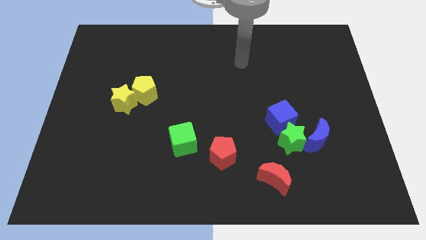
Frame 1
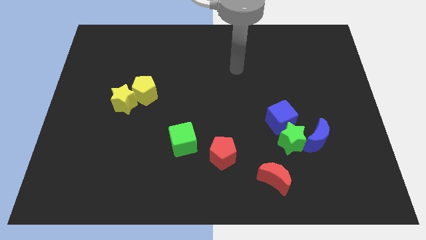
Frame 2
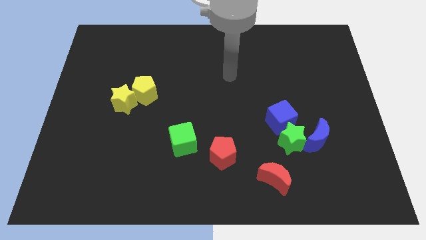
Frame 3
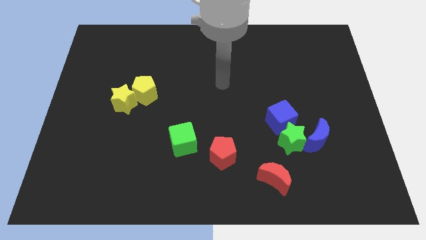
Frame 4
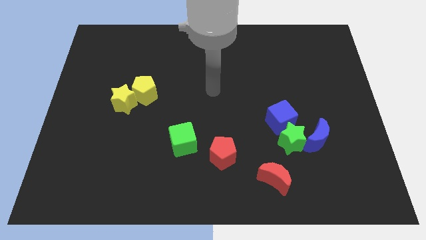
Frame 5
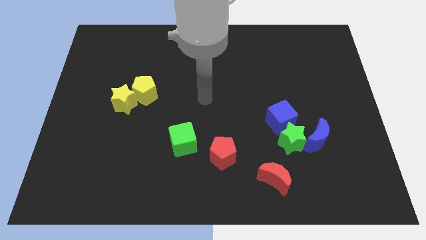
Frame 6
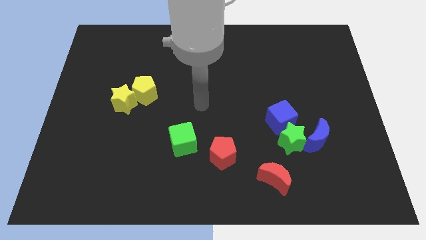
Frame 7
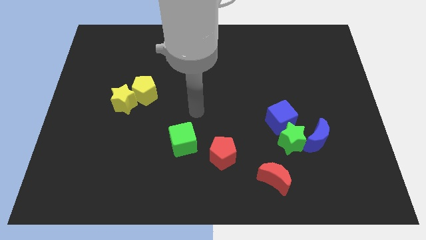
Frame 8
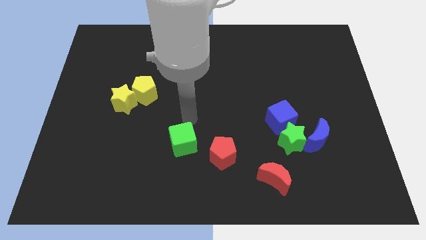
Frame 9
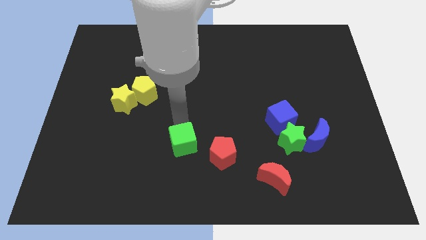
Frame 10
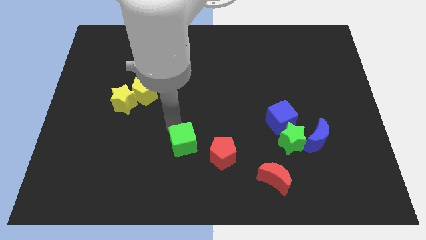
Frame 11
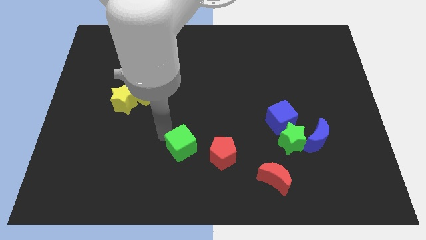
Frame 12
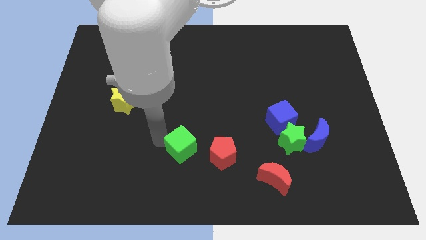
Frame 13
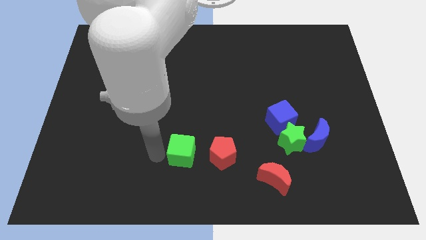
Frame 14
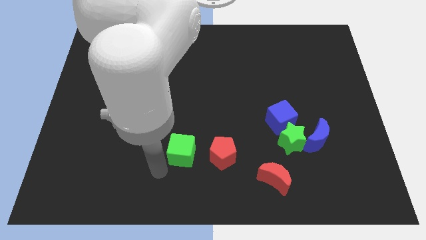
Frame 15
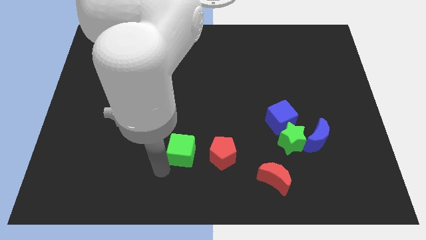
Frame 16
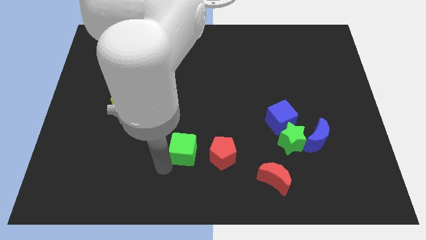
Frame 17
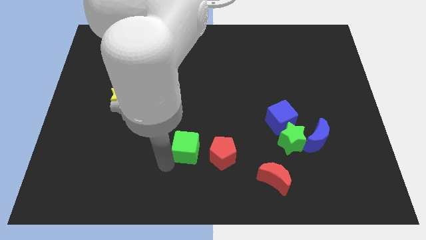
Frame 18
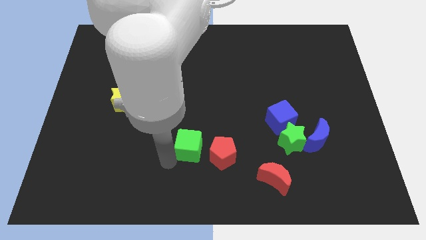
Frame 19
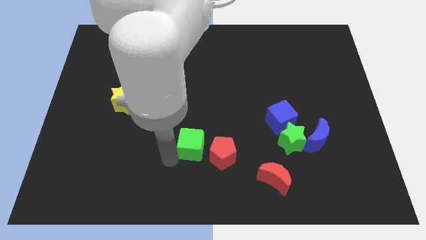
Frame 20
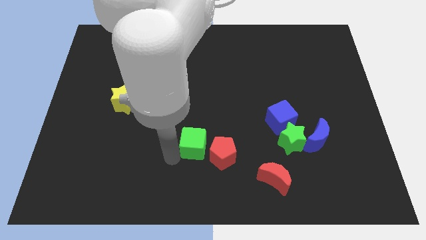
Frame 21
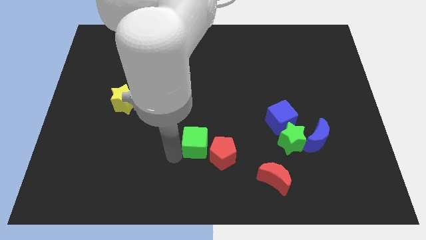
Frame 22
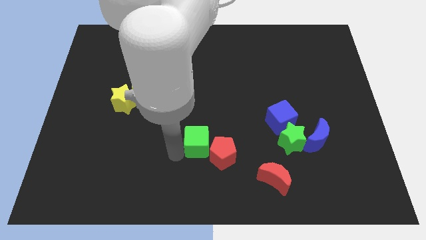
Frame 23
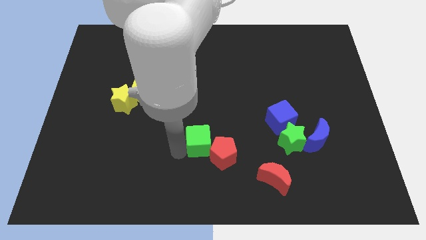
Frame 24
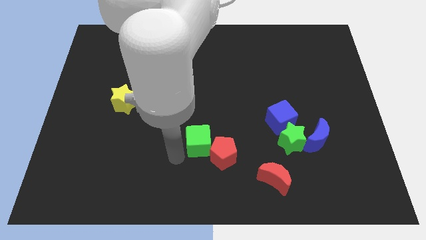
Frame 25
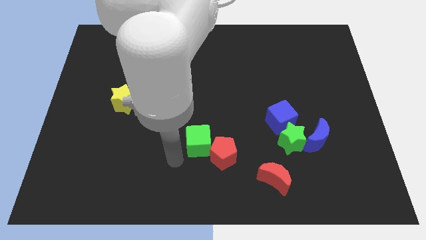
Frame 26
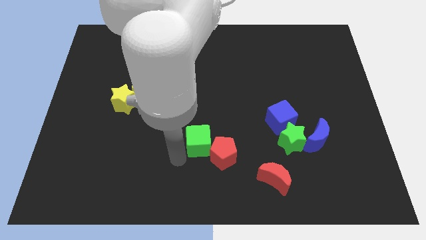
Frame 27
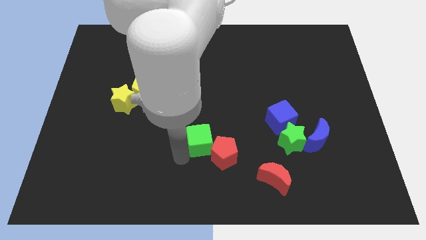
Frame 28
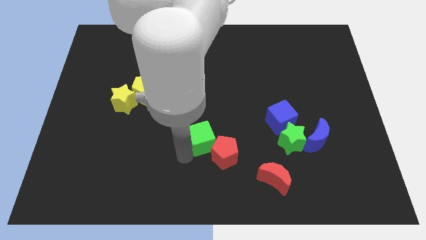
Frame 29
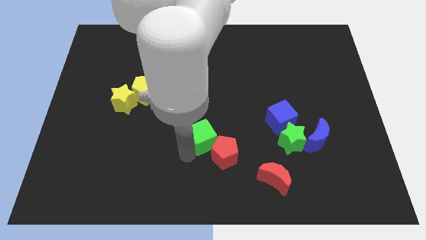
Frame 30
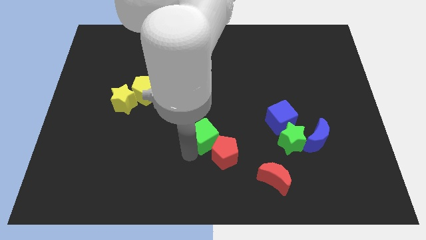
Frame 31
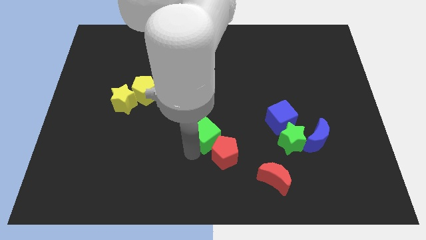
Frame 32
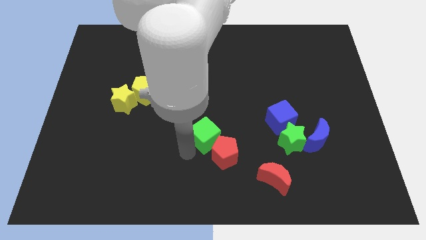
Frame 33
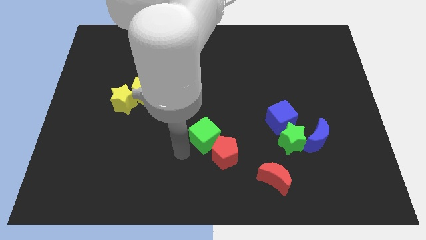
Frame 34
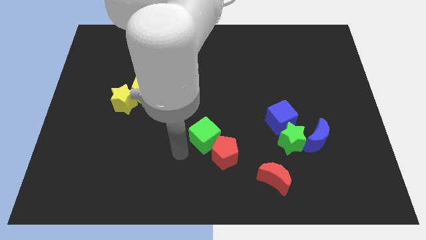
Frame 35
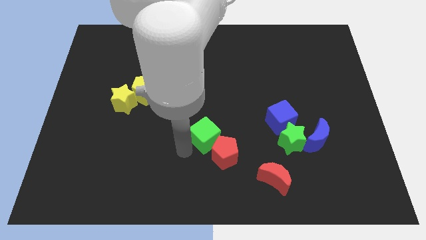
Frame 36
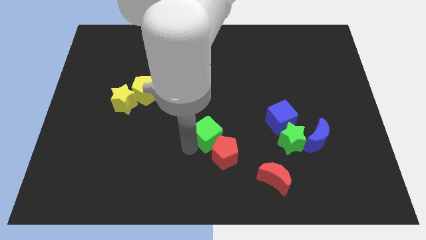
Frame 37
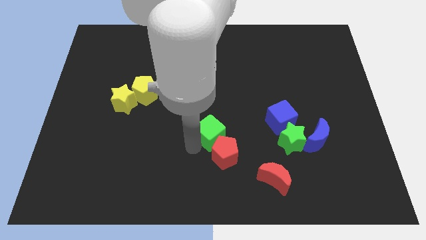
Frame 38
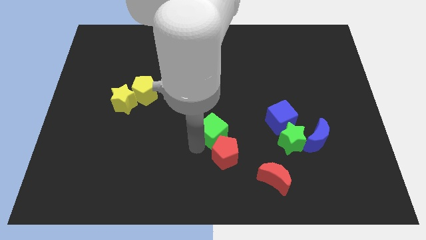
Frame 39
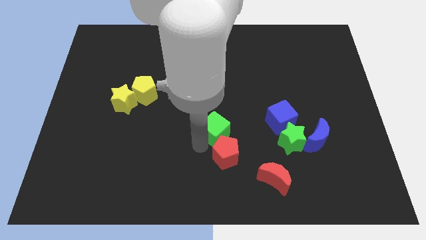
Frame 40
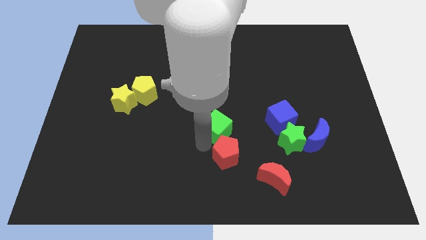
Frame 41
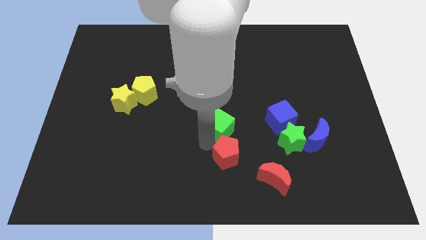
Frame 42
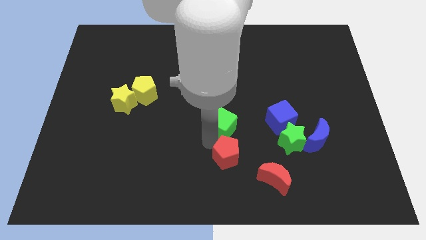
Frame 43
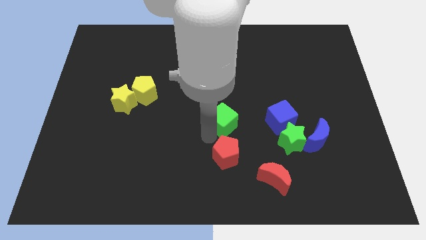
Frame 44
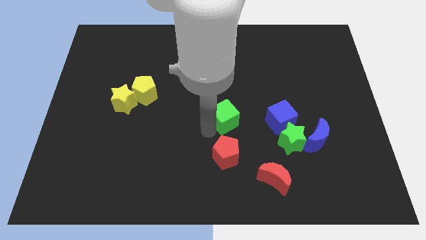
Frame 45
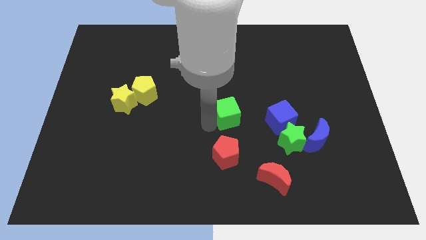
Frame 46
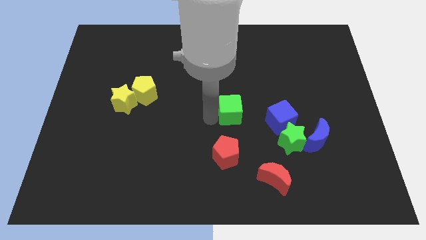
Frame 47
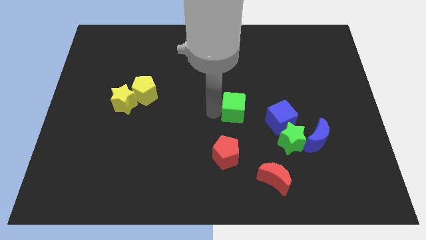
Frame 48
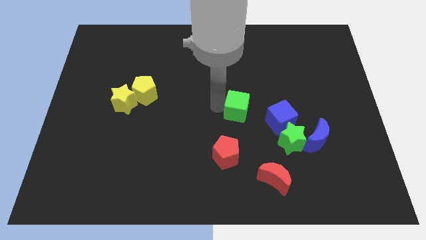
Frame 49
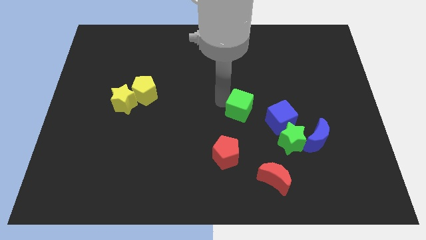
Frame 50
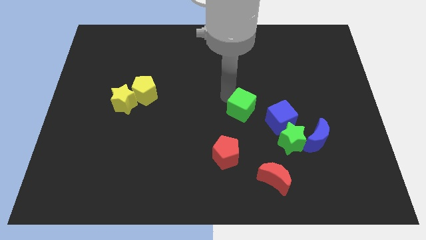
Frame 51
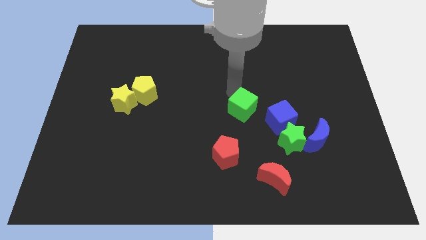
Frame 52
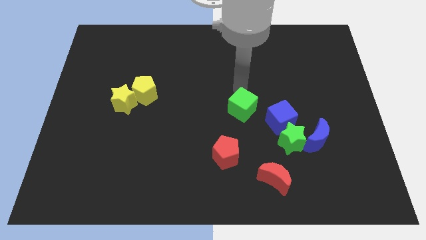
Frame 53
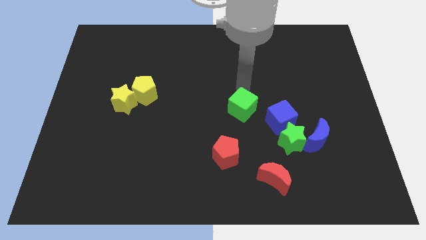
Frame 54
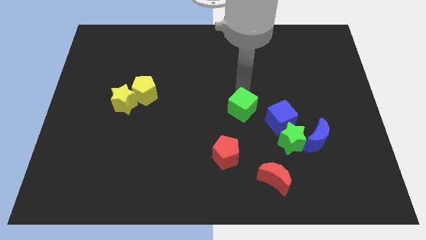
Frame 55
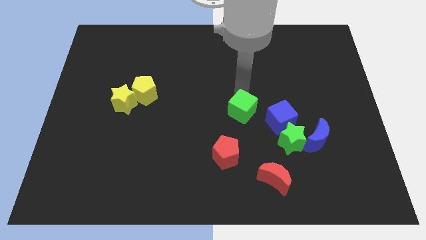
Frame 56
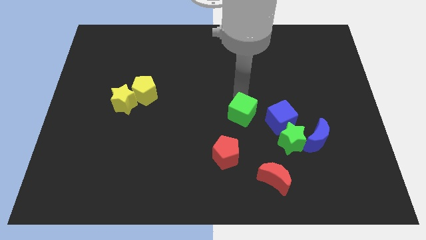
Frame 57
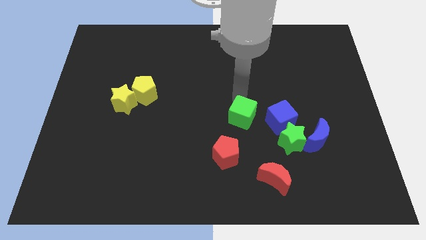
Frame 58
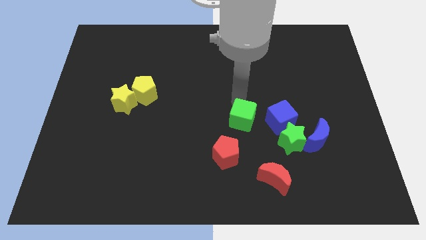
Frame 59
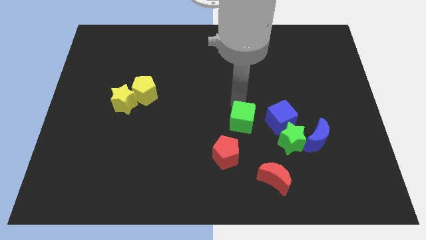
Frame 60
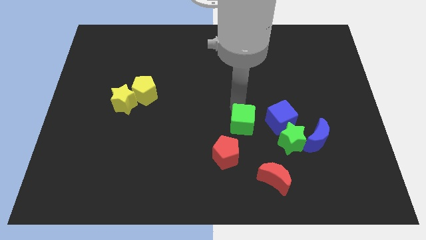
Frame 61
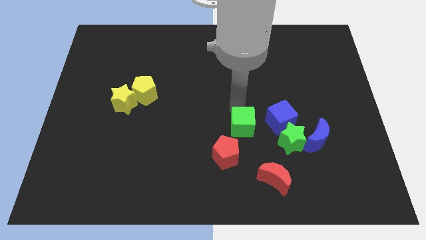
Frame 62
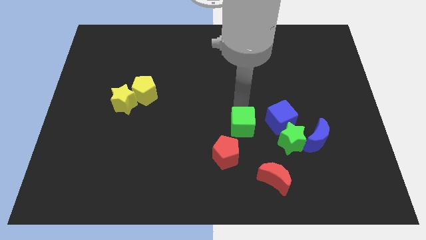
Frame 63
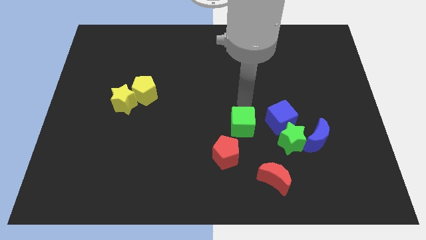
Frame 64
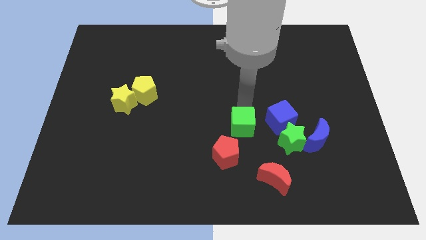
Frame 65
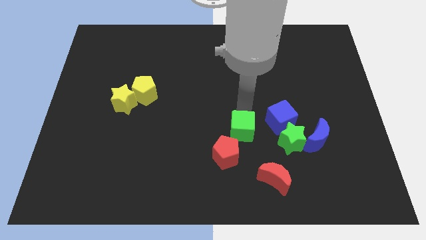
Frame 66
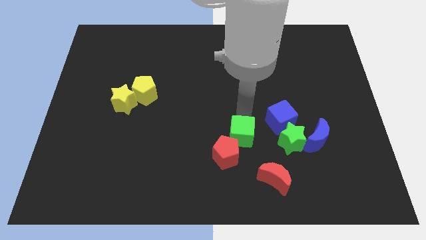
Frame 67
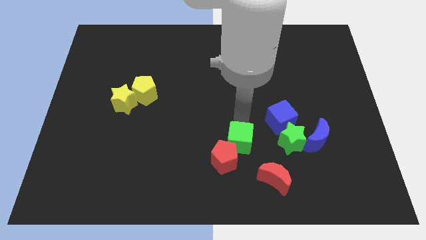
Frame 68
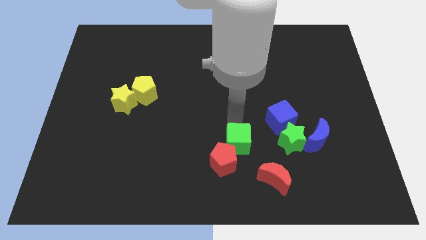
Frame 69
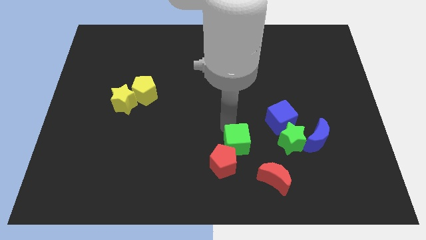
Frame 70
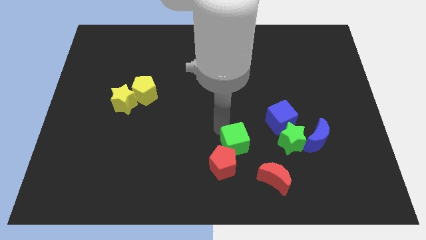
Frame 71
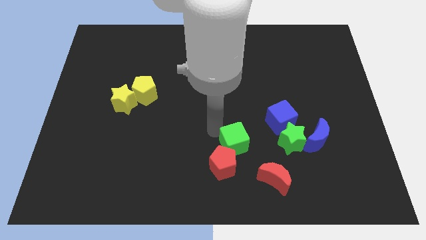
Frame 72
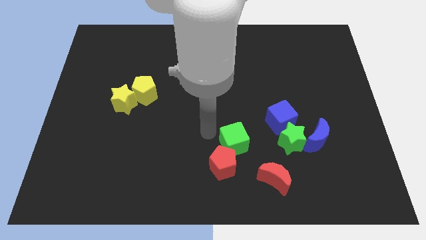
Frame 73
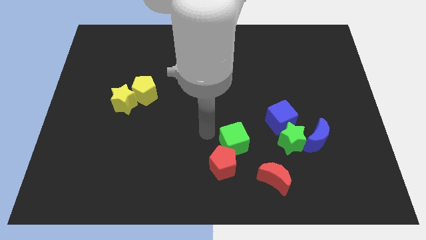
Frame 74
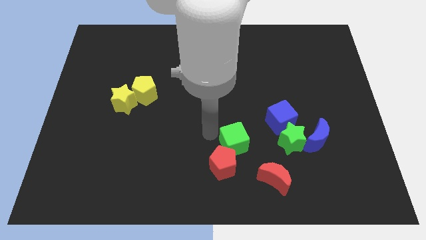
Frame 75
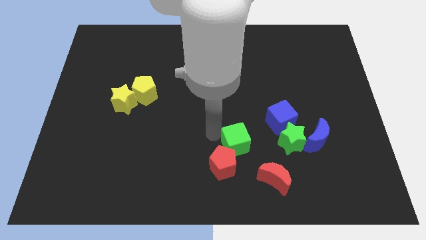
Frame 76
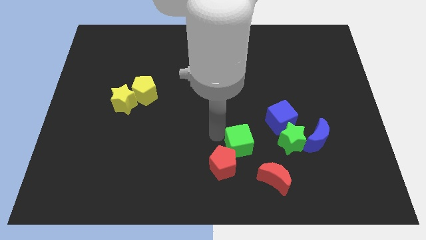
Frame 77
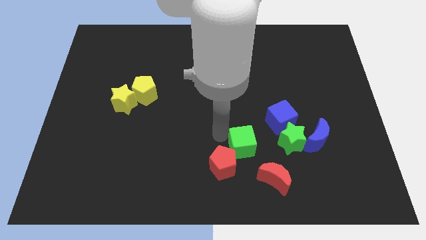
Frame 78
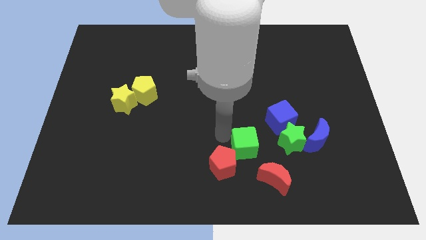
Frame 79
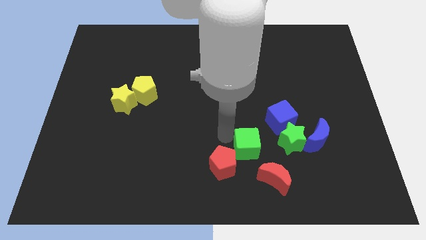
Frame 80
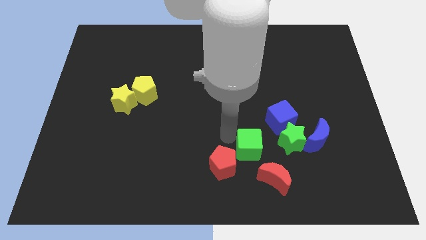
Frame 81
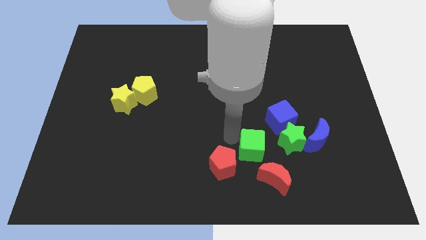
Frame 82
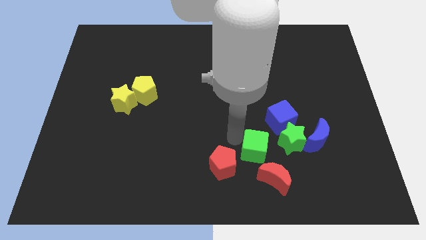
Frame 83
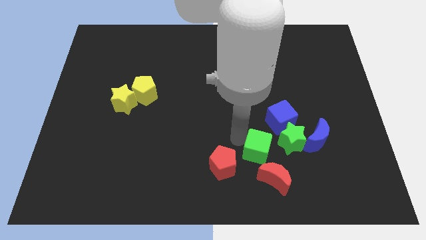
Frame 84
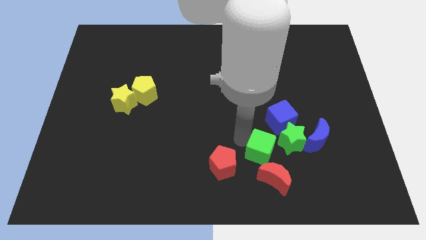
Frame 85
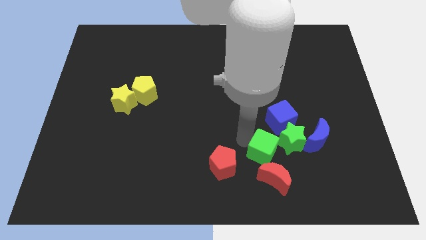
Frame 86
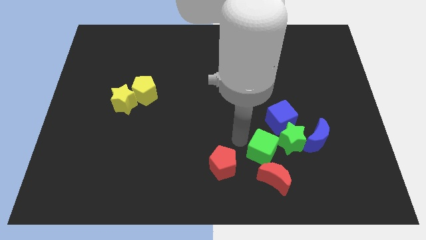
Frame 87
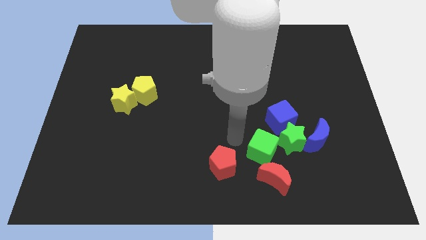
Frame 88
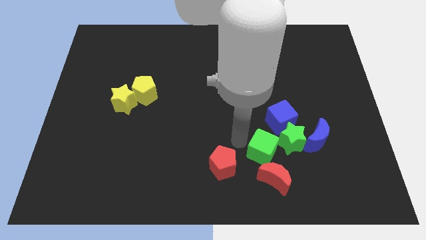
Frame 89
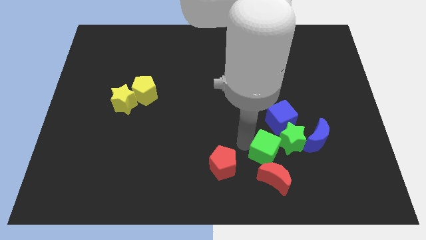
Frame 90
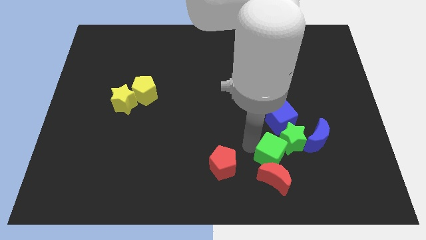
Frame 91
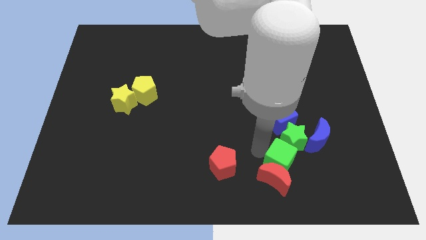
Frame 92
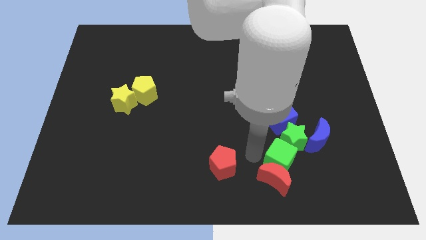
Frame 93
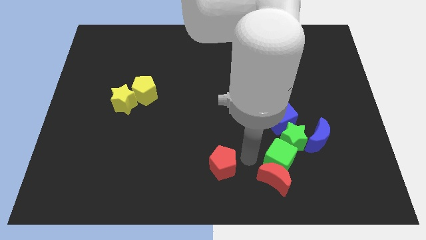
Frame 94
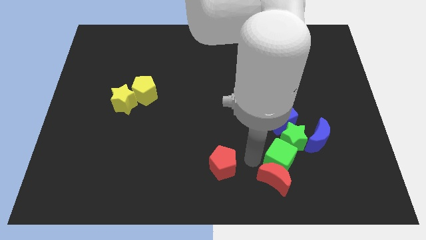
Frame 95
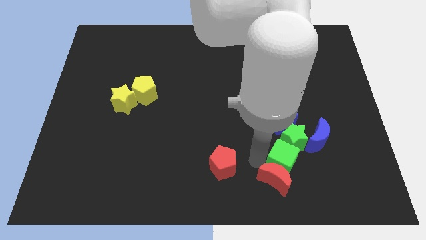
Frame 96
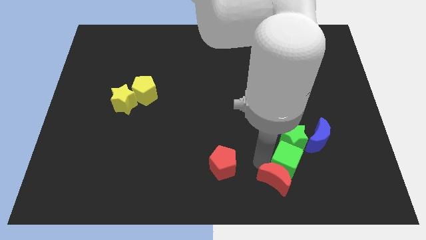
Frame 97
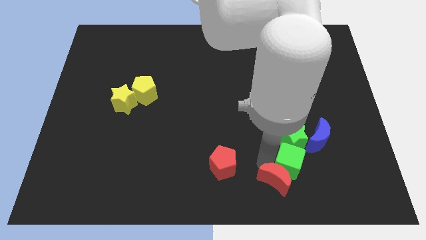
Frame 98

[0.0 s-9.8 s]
put the green cube diagonally down and to the right of the green star
